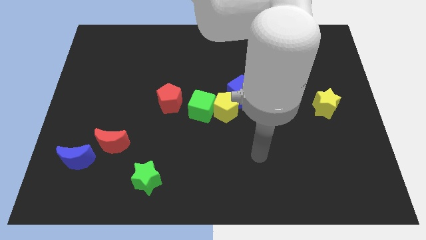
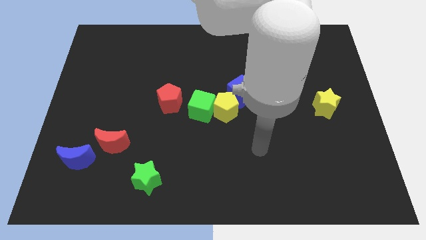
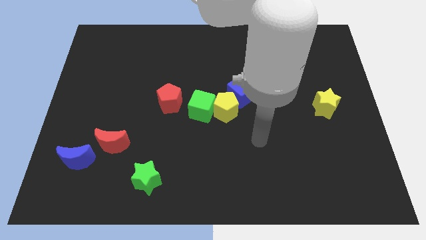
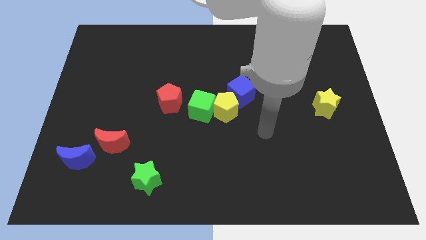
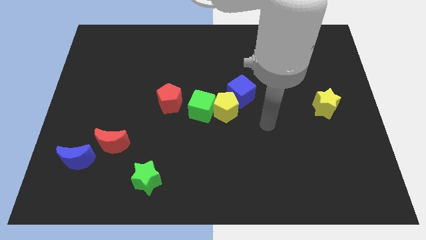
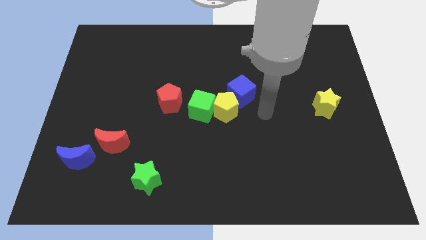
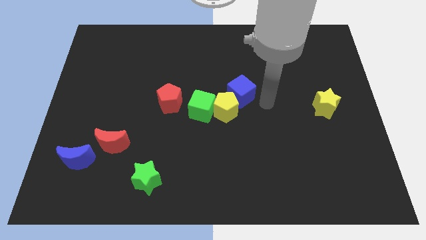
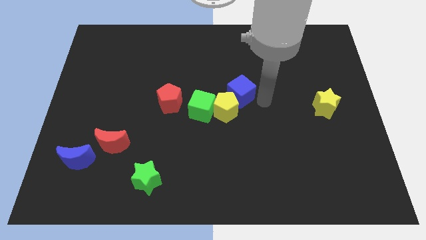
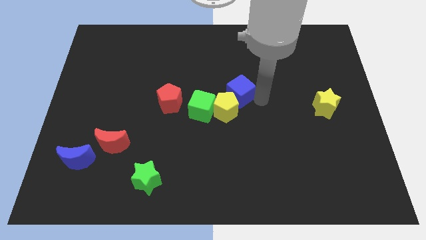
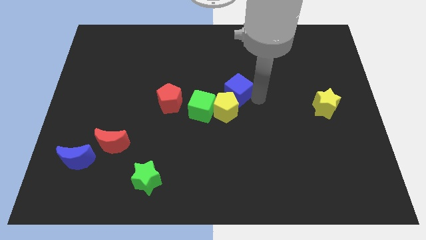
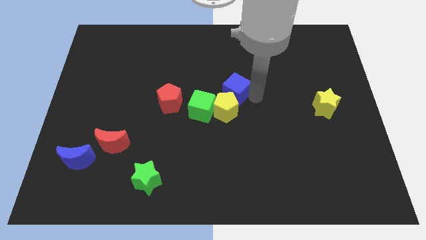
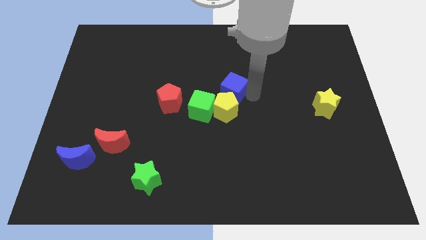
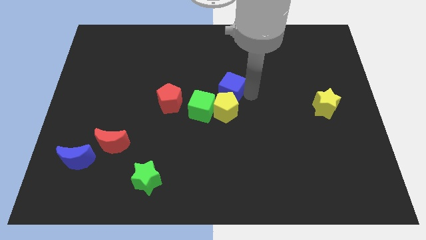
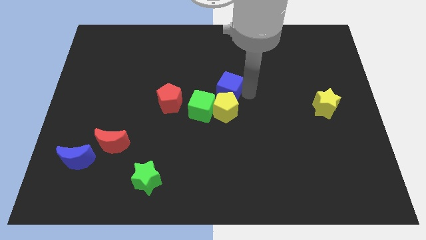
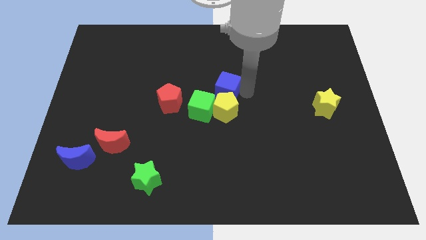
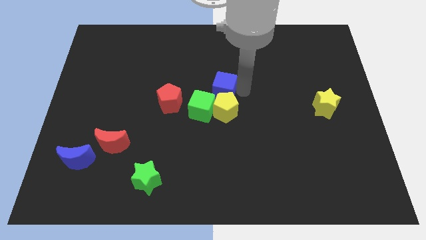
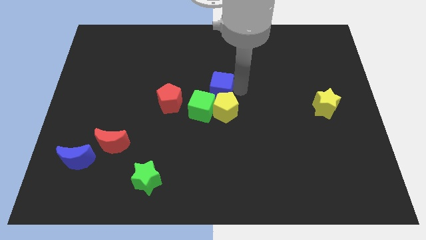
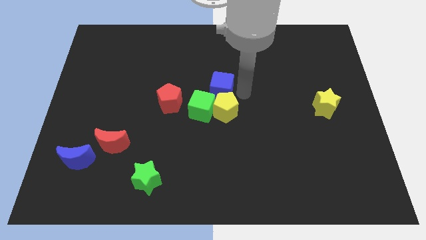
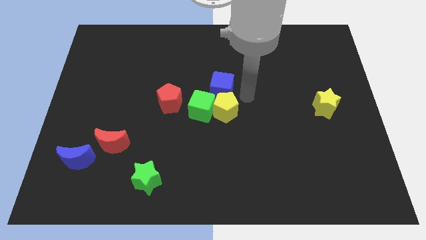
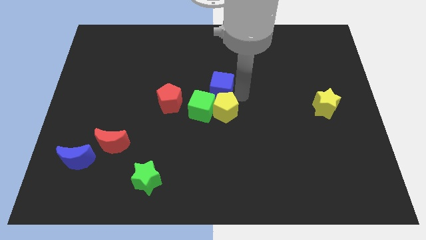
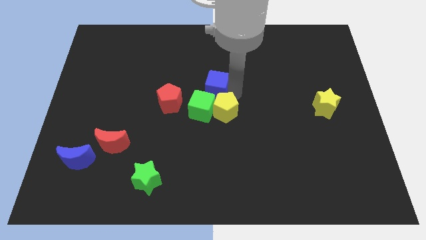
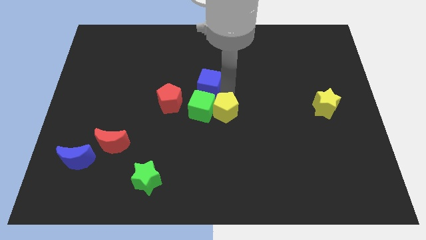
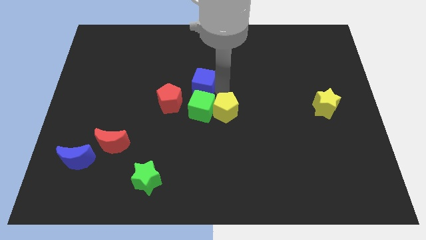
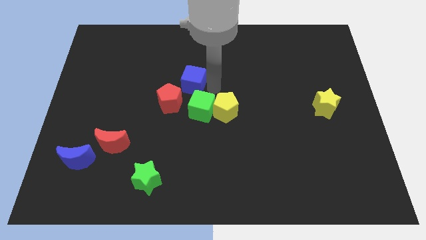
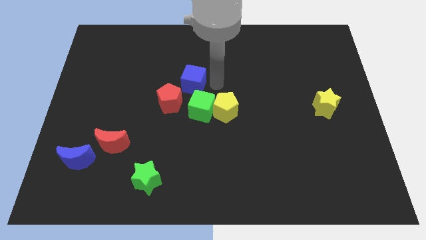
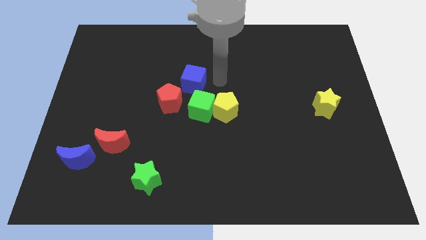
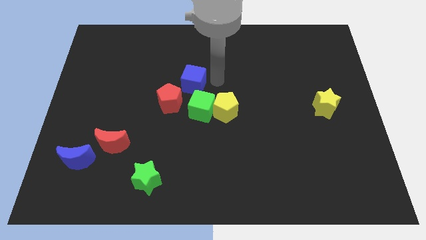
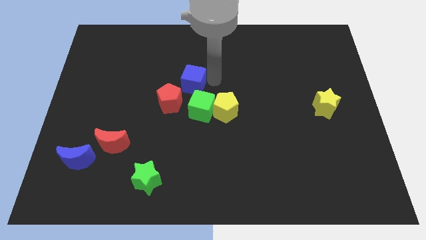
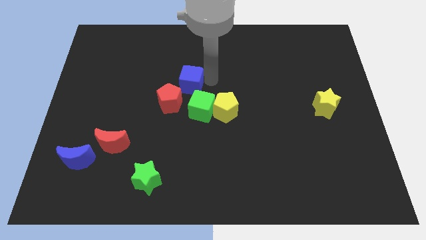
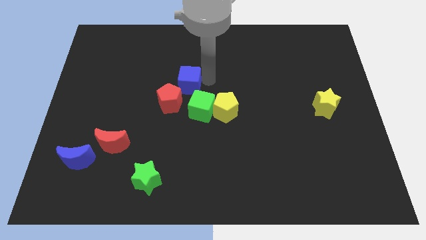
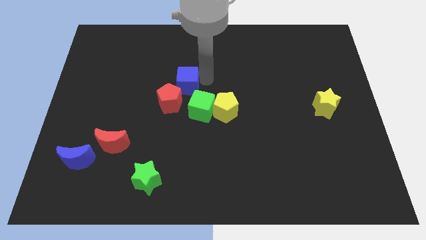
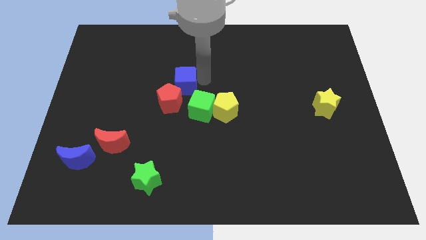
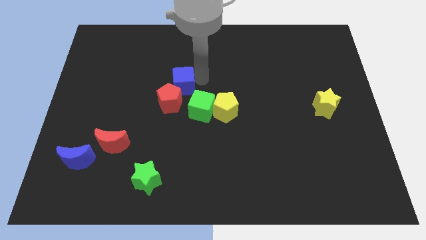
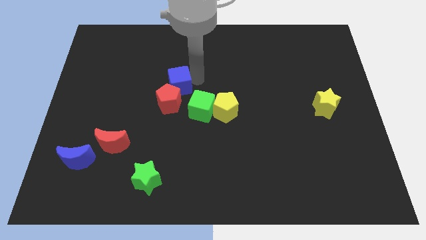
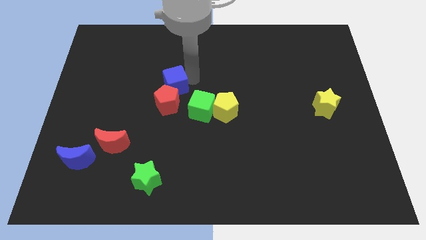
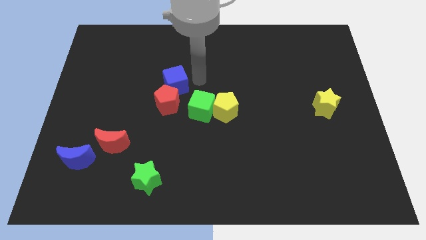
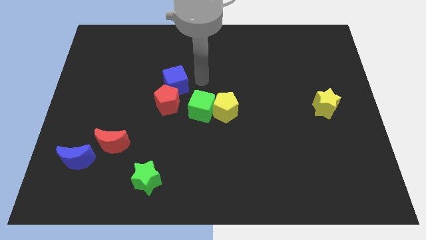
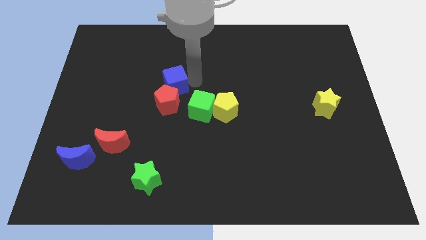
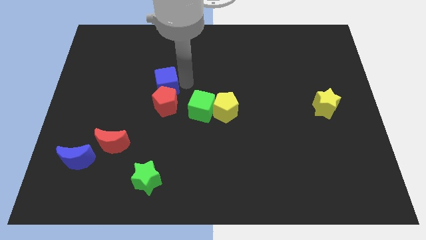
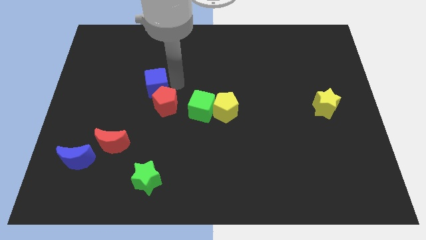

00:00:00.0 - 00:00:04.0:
push the blue cube left

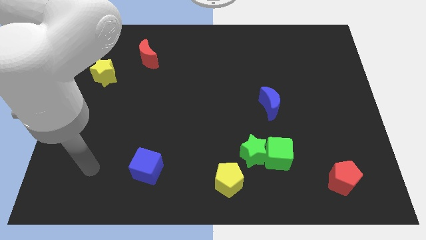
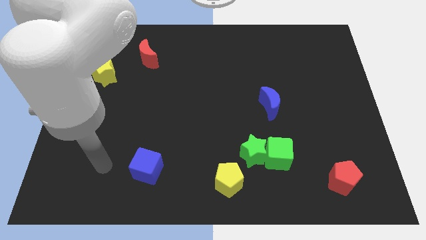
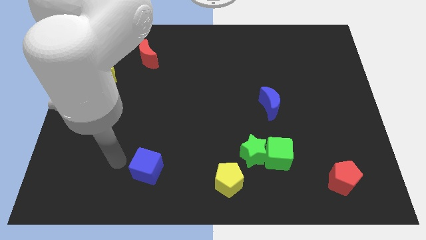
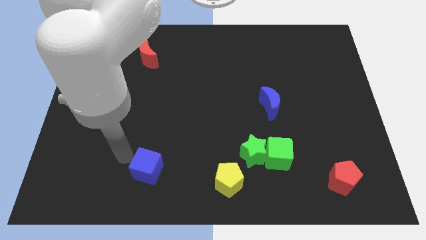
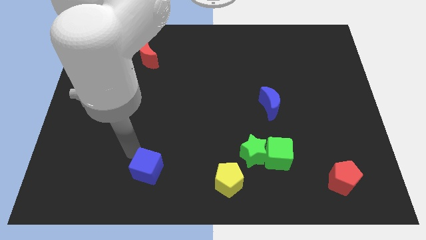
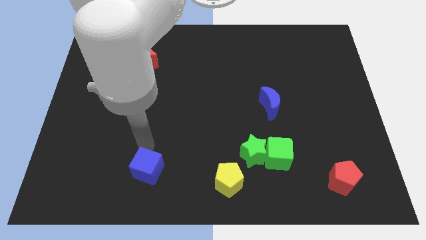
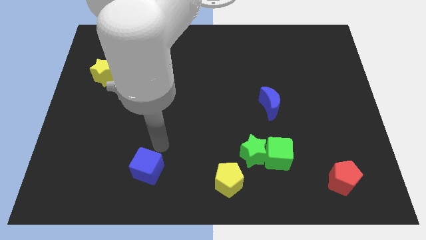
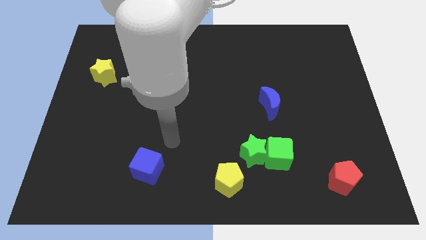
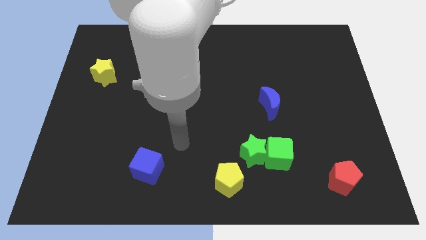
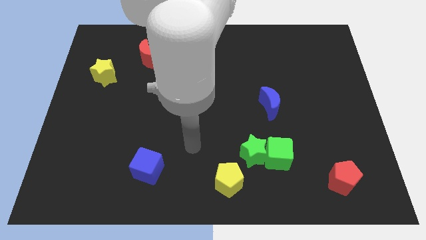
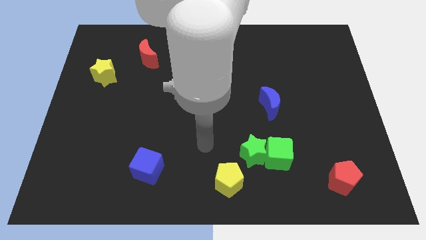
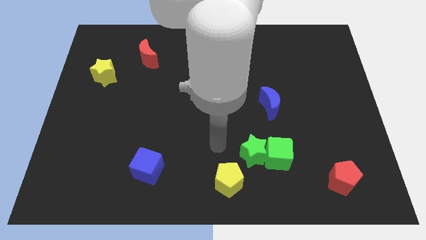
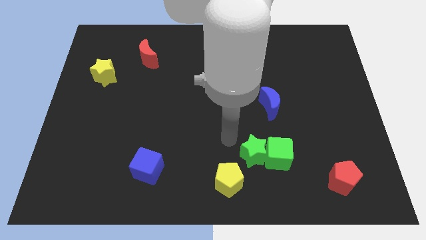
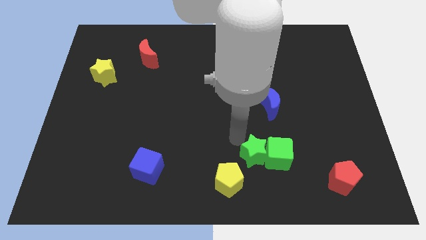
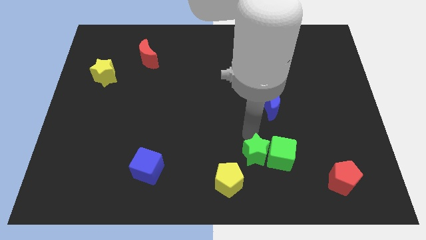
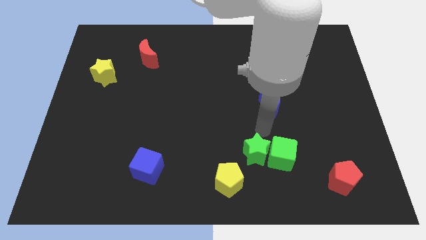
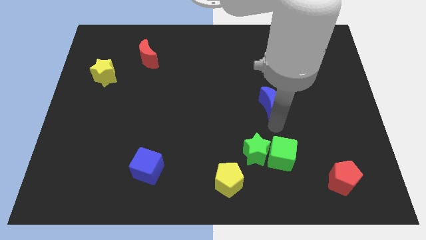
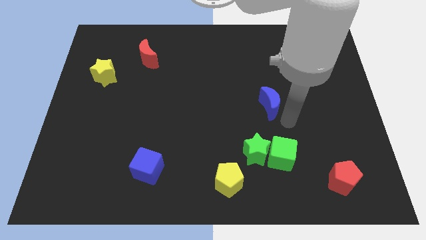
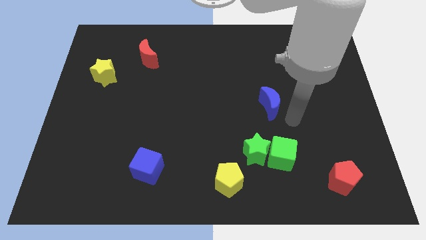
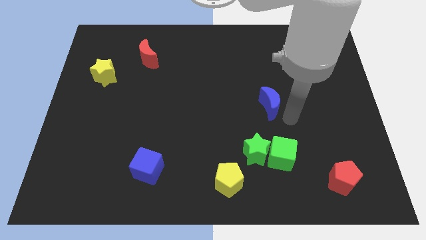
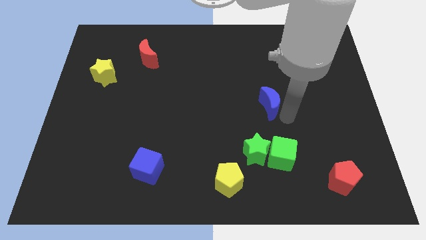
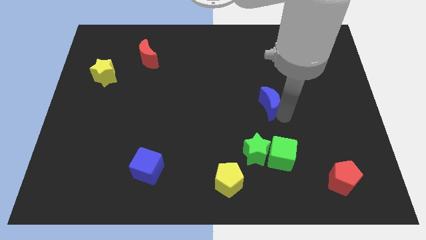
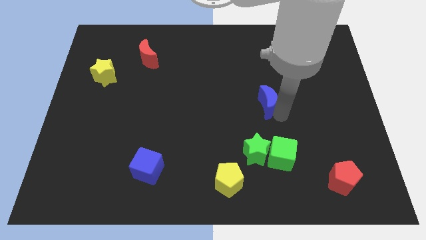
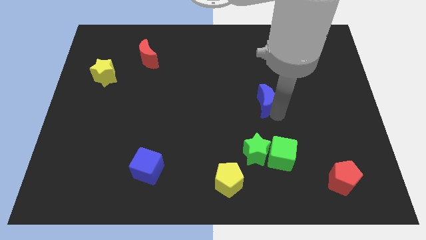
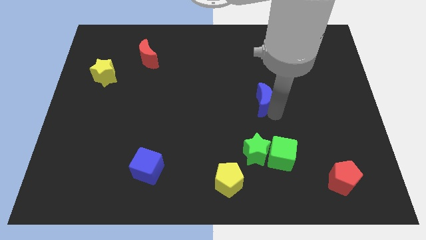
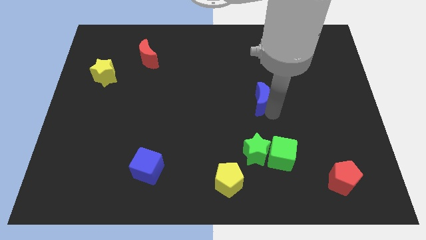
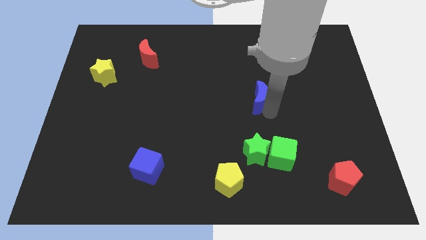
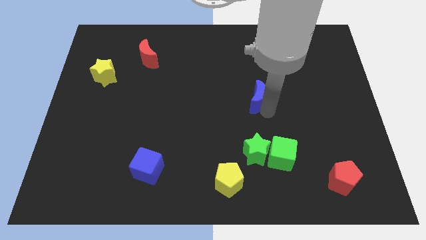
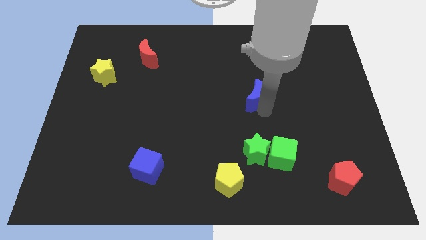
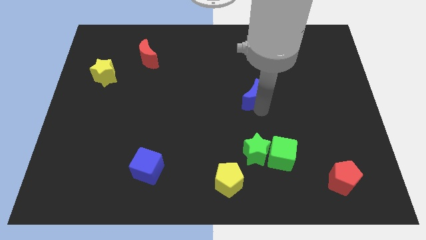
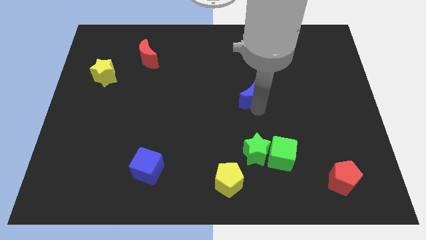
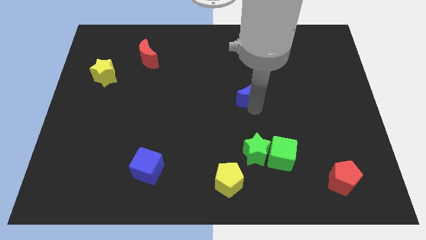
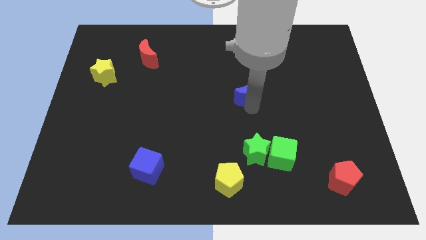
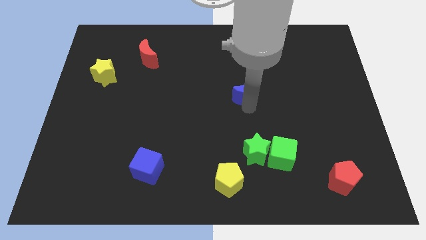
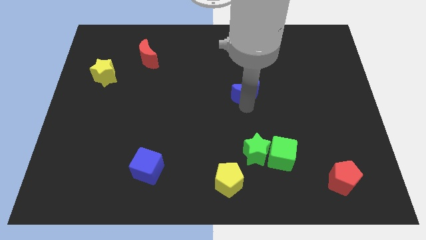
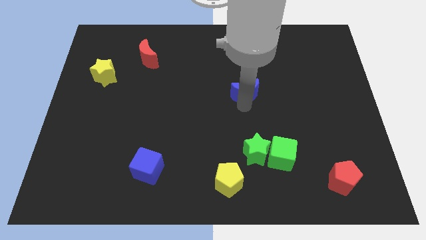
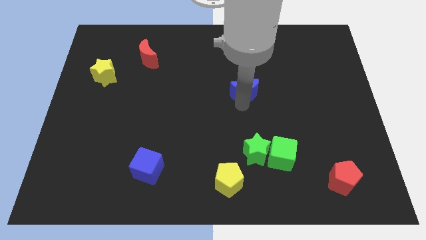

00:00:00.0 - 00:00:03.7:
push the blue moon a little bit up and to the left
